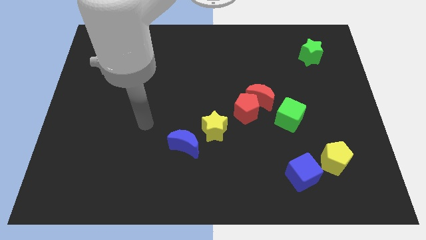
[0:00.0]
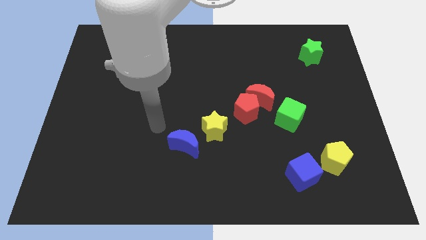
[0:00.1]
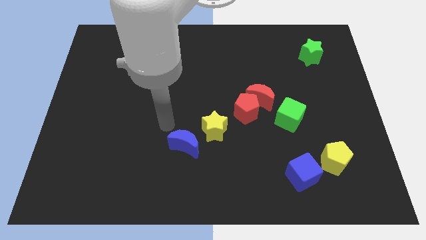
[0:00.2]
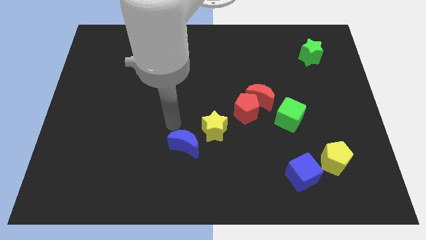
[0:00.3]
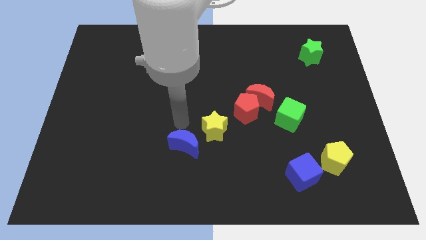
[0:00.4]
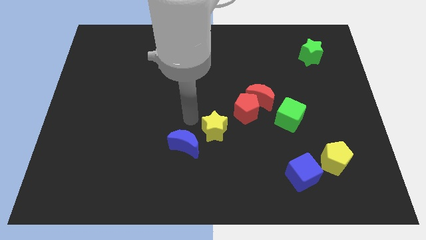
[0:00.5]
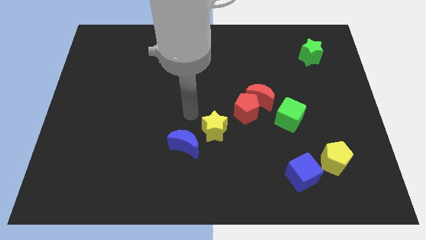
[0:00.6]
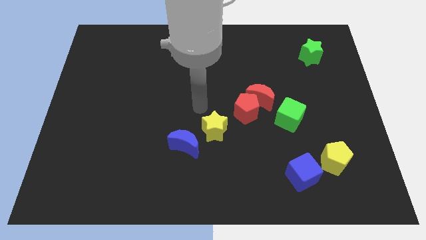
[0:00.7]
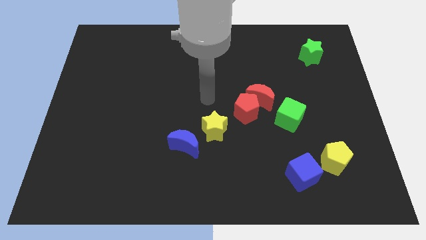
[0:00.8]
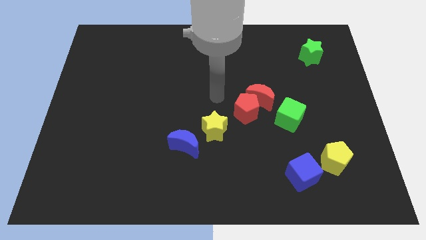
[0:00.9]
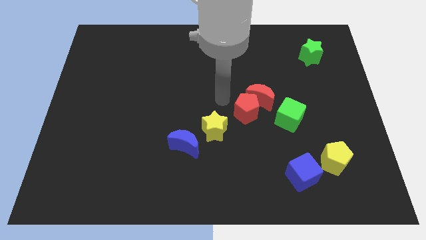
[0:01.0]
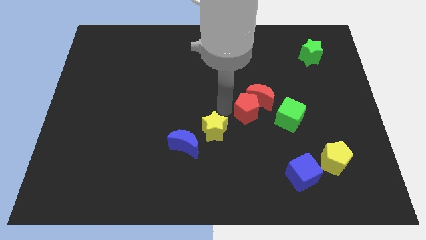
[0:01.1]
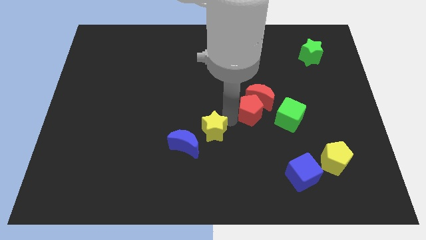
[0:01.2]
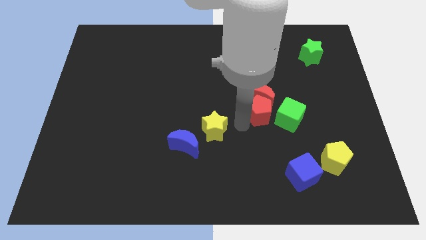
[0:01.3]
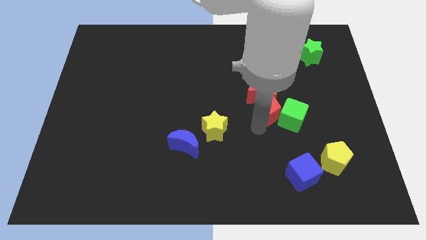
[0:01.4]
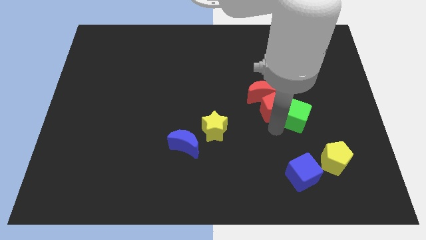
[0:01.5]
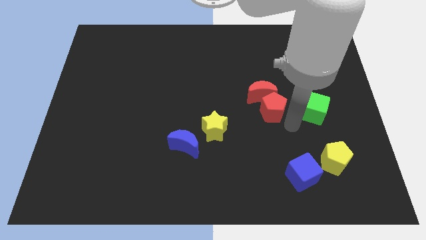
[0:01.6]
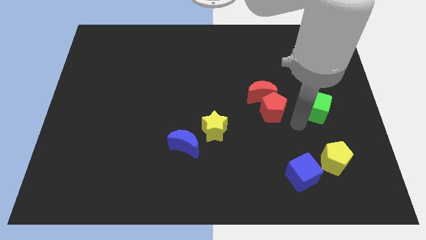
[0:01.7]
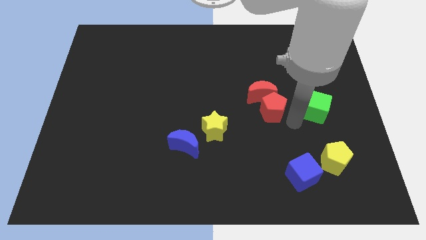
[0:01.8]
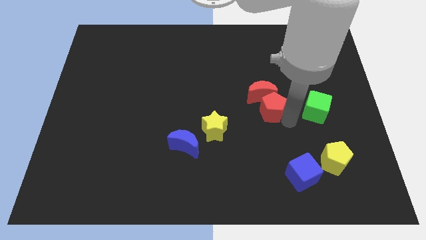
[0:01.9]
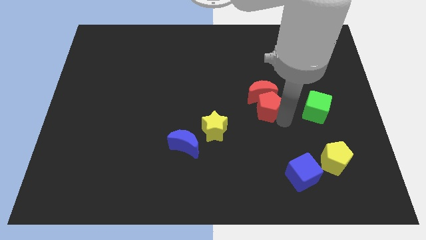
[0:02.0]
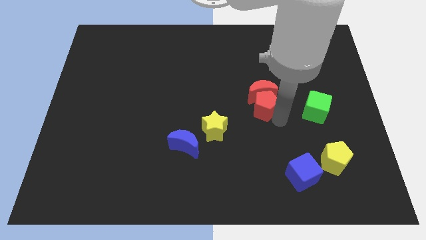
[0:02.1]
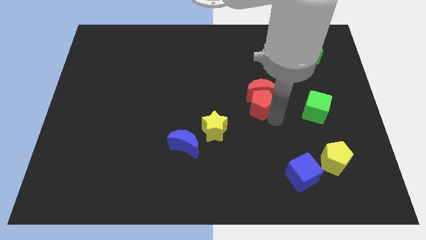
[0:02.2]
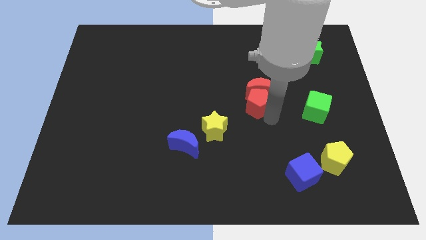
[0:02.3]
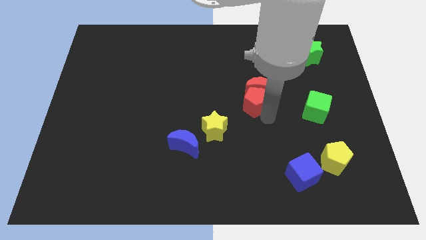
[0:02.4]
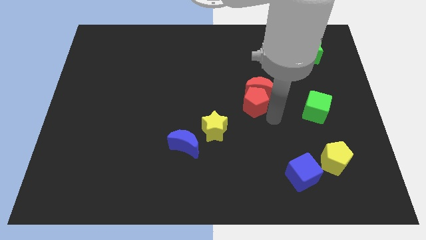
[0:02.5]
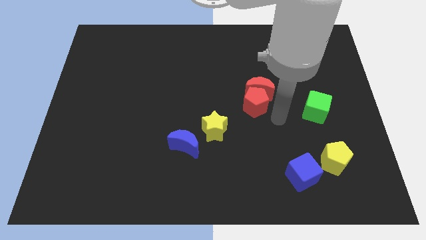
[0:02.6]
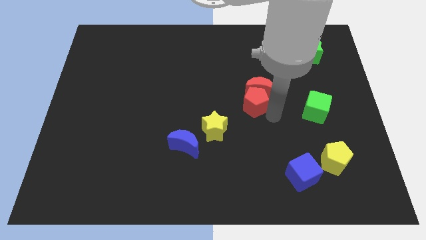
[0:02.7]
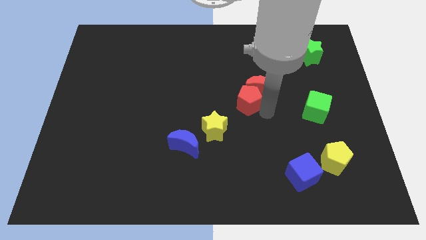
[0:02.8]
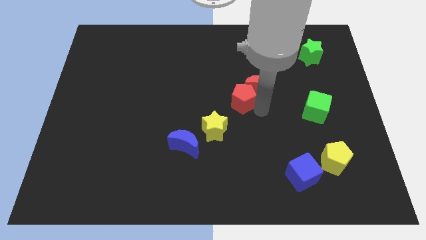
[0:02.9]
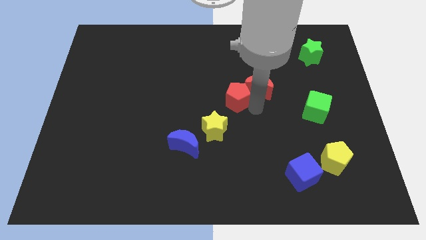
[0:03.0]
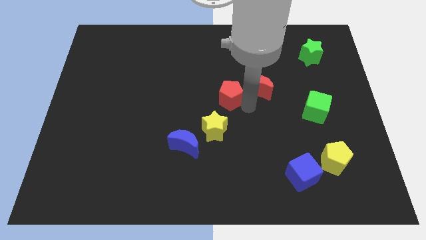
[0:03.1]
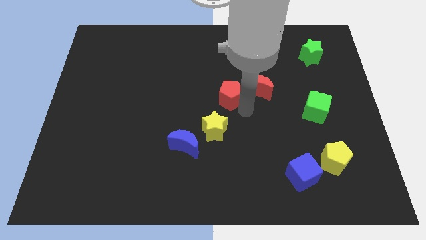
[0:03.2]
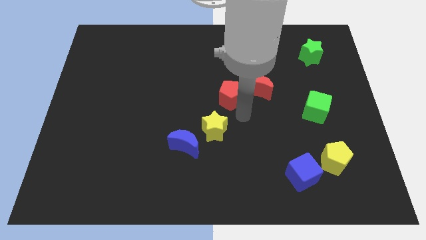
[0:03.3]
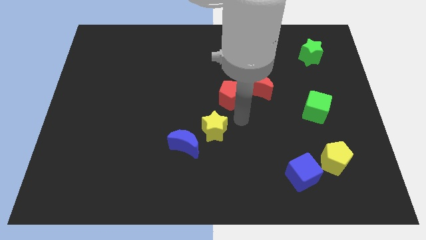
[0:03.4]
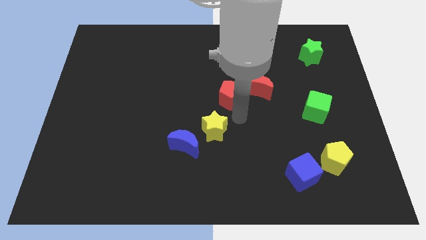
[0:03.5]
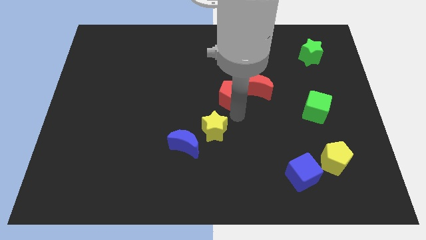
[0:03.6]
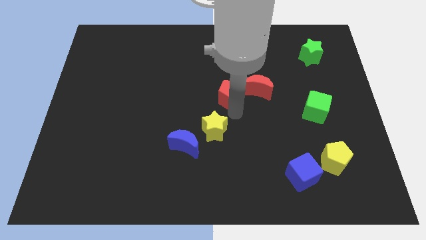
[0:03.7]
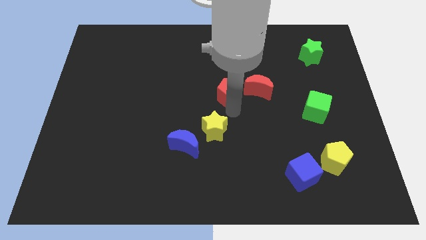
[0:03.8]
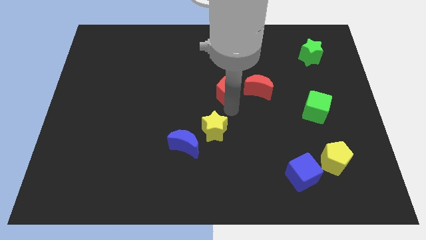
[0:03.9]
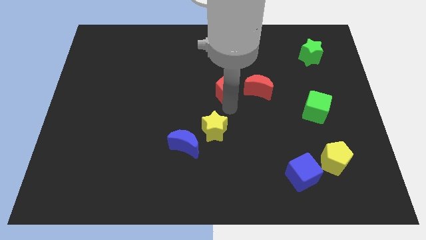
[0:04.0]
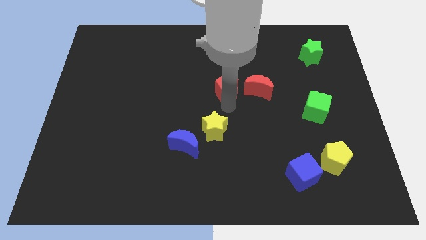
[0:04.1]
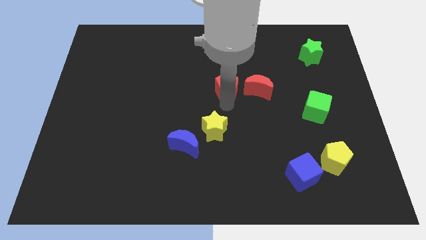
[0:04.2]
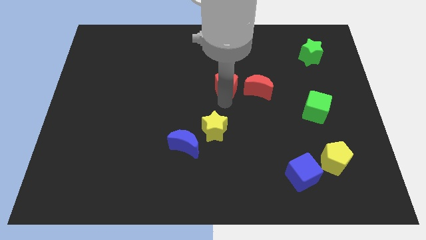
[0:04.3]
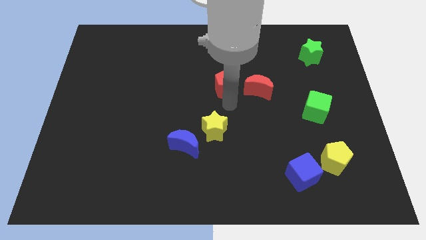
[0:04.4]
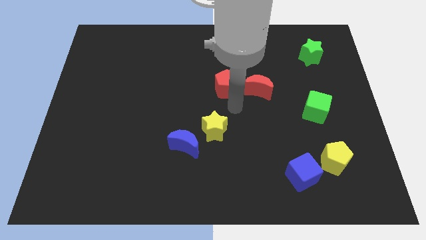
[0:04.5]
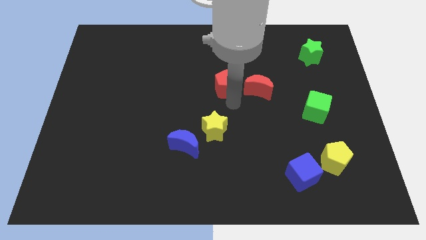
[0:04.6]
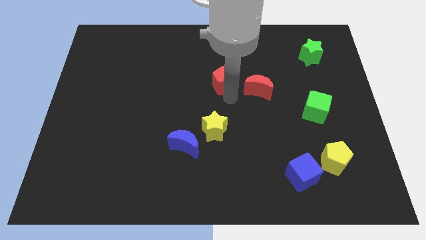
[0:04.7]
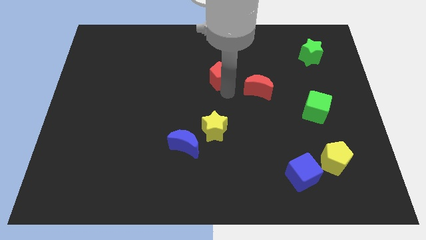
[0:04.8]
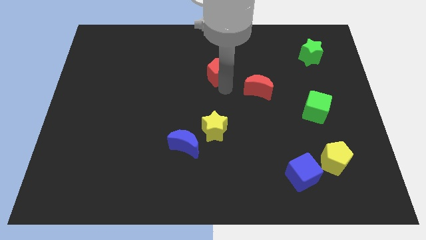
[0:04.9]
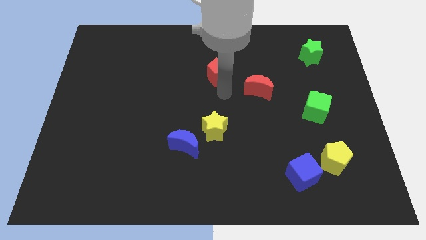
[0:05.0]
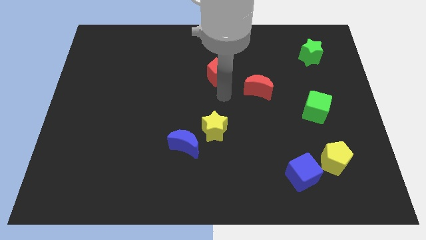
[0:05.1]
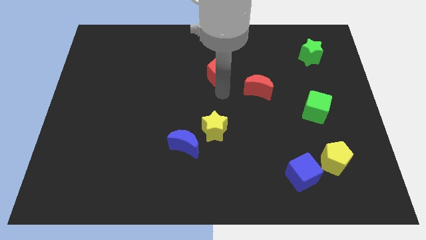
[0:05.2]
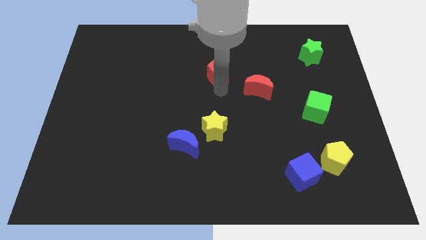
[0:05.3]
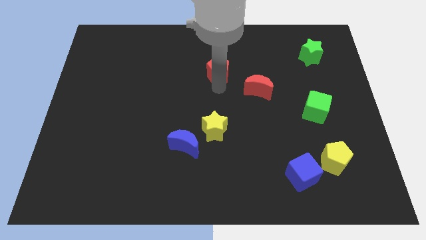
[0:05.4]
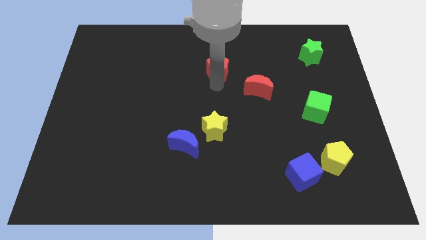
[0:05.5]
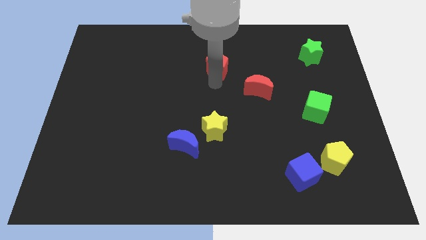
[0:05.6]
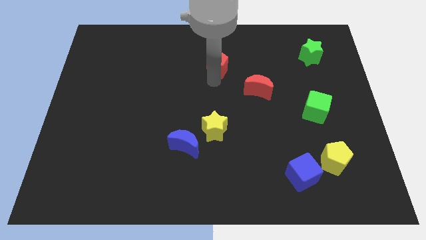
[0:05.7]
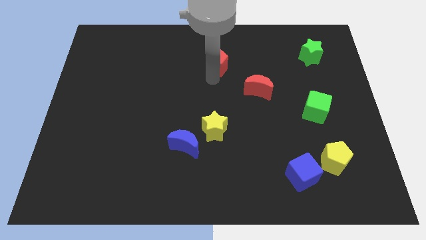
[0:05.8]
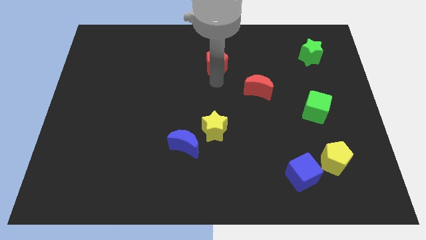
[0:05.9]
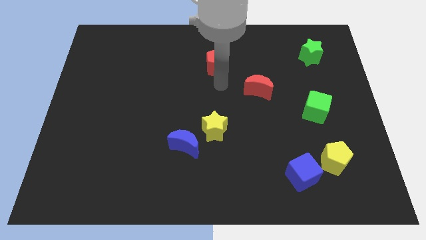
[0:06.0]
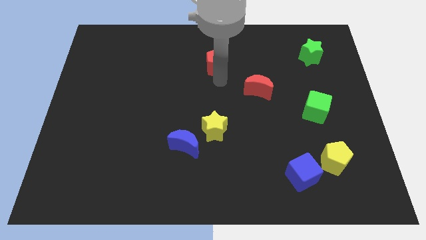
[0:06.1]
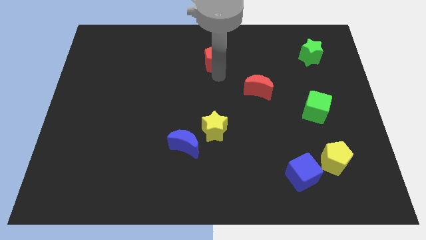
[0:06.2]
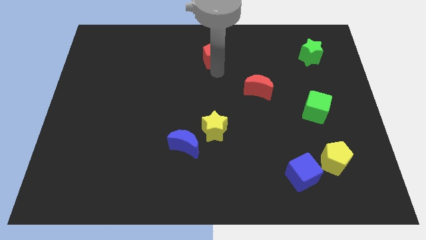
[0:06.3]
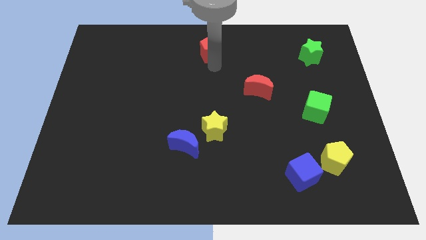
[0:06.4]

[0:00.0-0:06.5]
put the red pentagon to the top side
